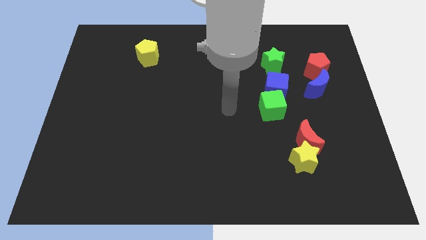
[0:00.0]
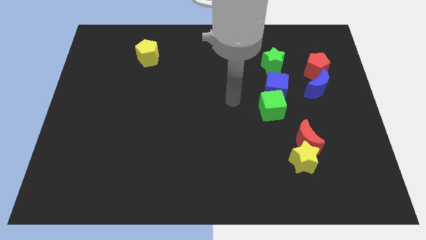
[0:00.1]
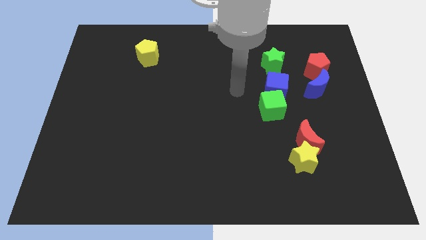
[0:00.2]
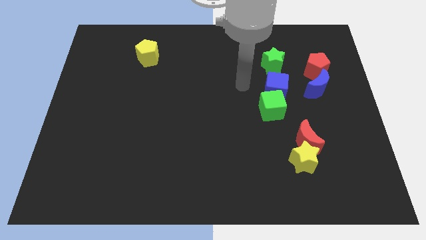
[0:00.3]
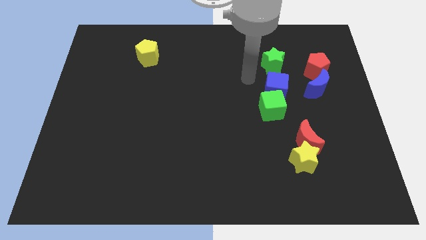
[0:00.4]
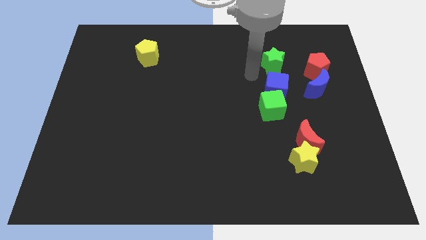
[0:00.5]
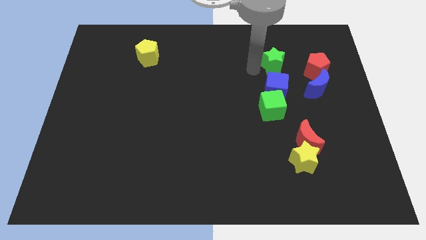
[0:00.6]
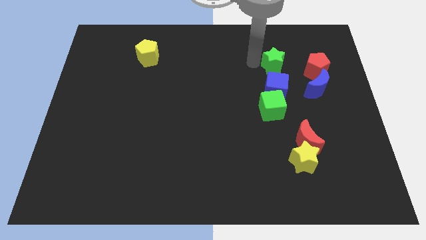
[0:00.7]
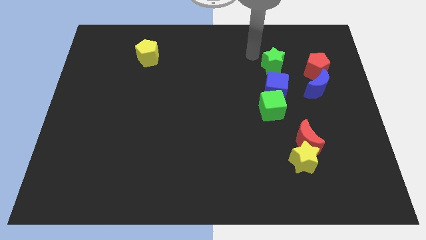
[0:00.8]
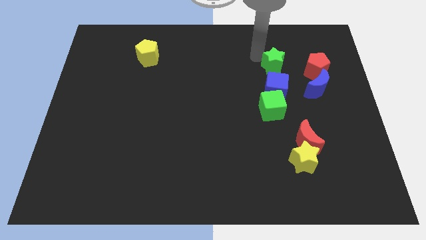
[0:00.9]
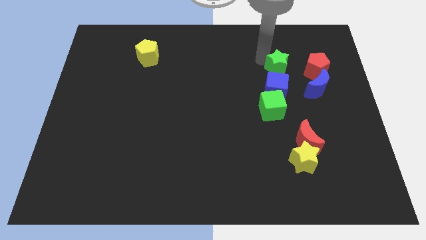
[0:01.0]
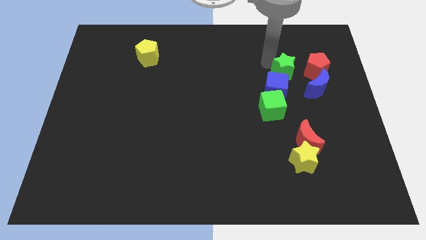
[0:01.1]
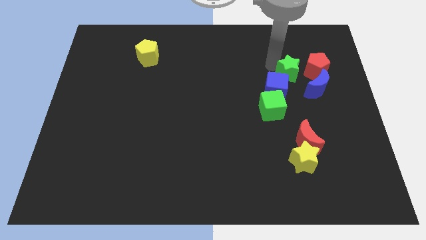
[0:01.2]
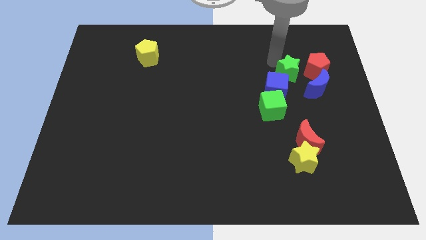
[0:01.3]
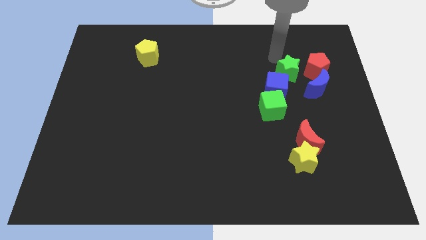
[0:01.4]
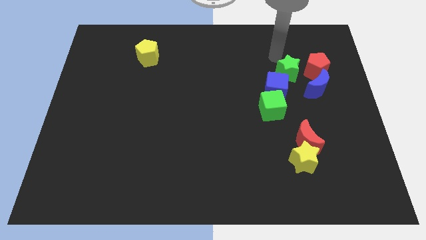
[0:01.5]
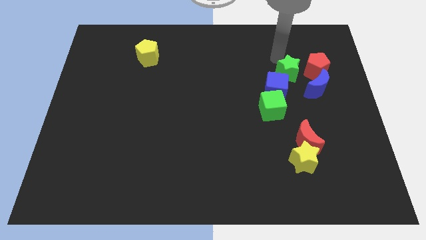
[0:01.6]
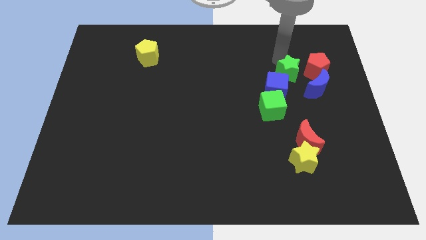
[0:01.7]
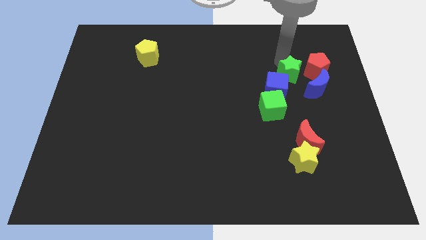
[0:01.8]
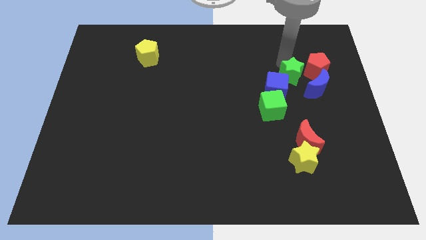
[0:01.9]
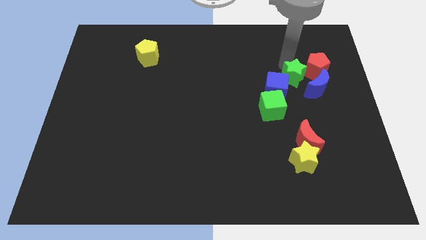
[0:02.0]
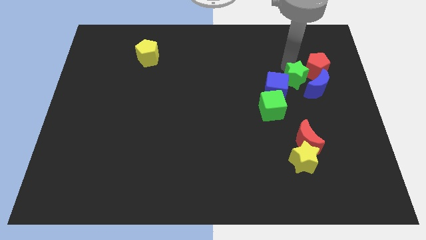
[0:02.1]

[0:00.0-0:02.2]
move the green star downwards and to the right a little

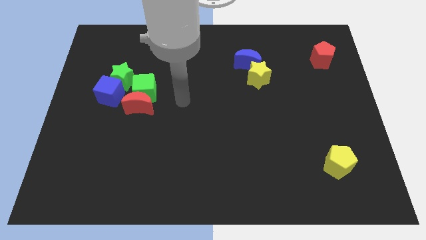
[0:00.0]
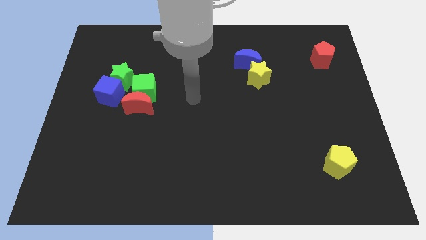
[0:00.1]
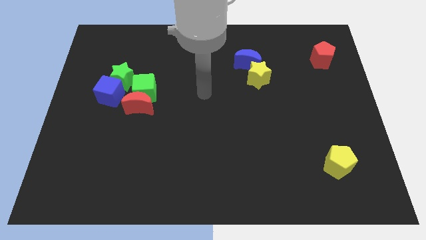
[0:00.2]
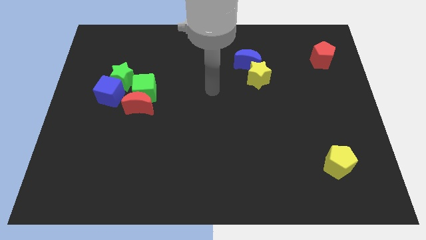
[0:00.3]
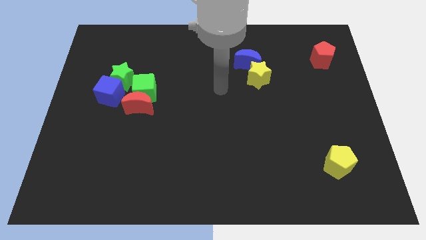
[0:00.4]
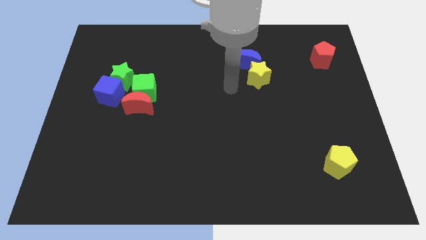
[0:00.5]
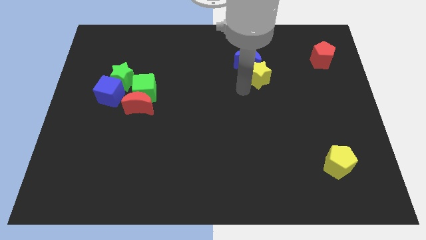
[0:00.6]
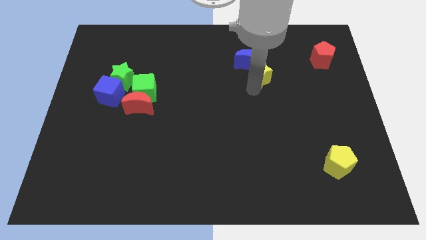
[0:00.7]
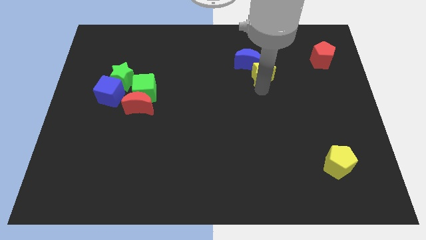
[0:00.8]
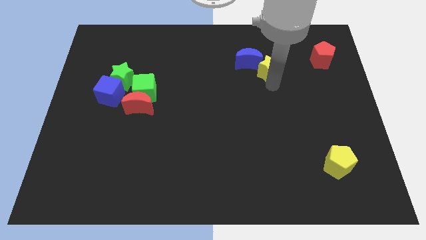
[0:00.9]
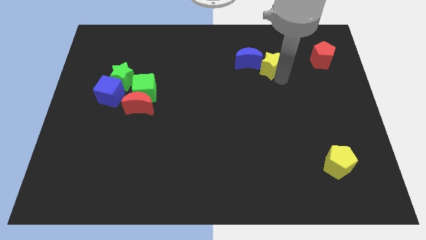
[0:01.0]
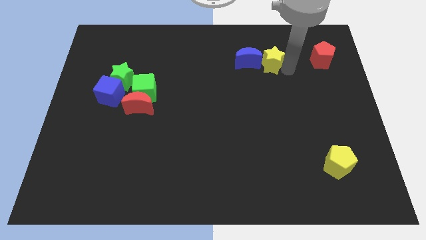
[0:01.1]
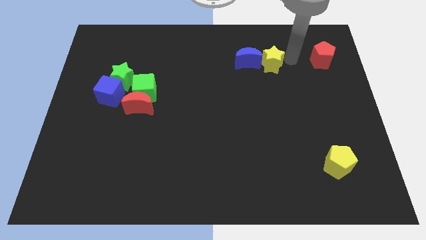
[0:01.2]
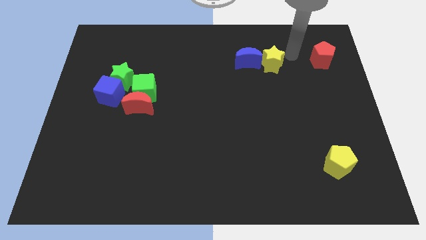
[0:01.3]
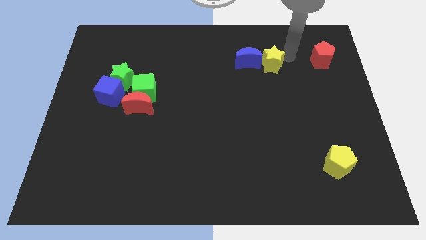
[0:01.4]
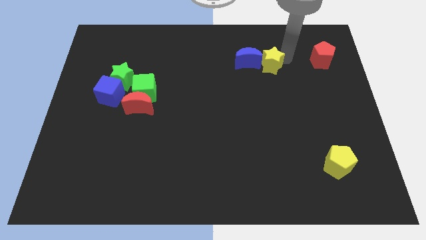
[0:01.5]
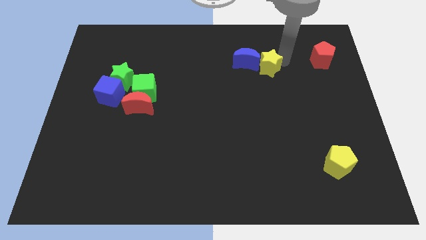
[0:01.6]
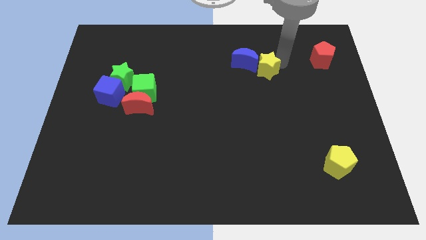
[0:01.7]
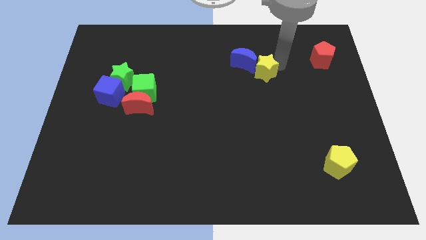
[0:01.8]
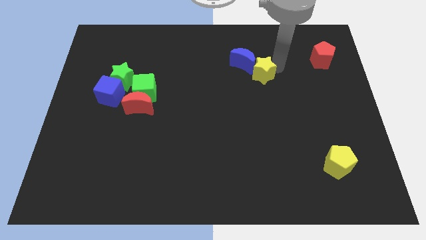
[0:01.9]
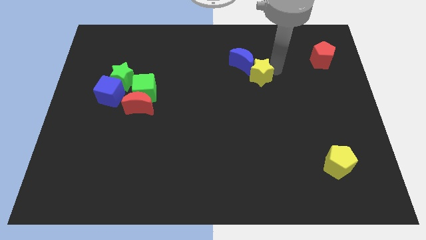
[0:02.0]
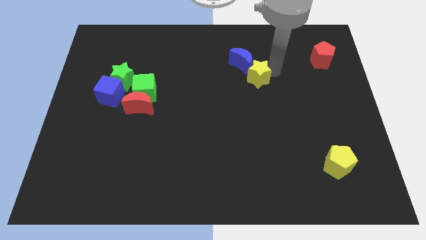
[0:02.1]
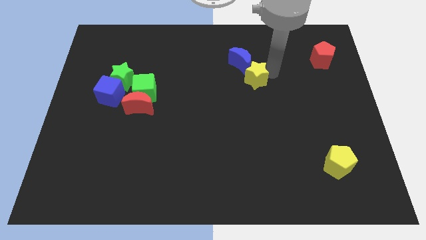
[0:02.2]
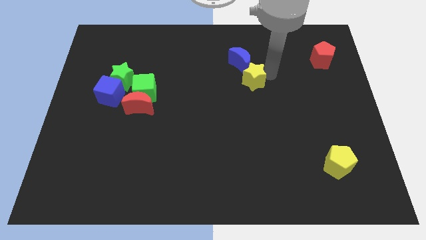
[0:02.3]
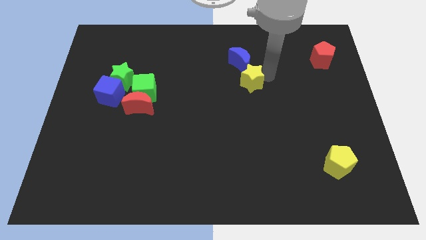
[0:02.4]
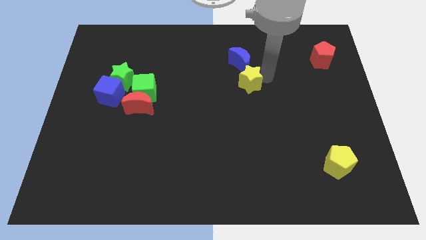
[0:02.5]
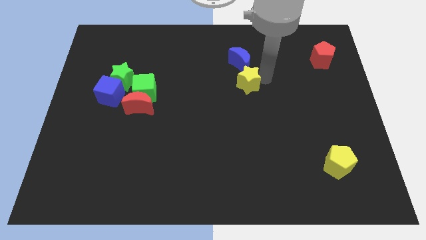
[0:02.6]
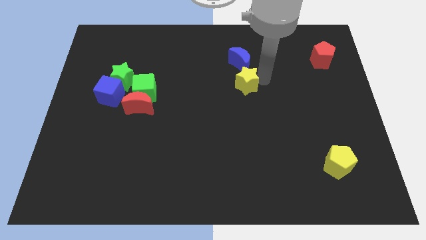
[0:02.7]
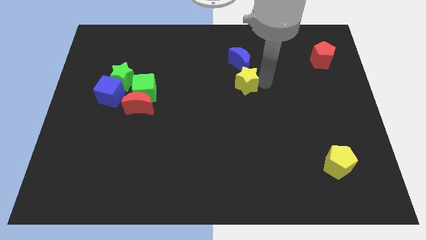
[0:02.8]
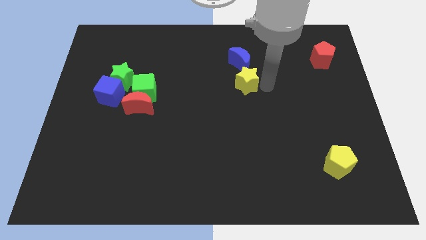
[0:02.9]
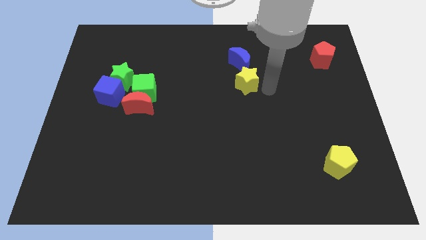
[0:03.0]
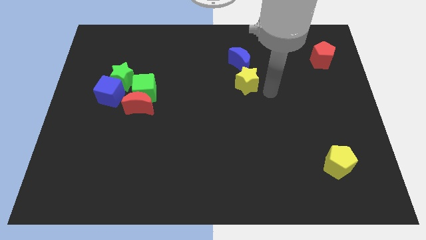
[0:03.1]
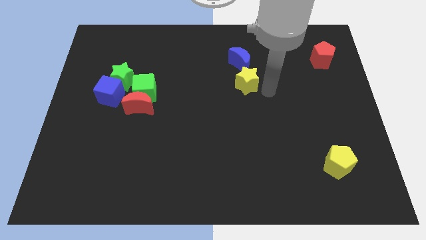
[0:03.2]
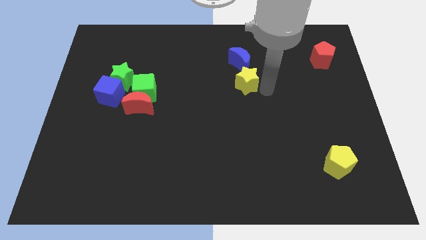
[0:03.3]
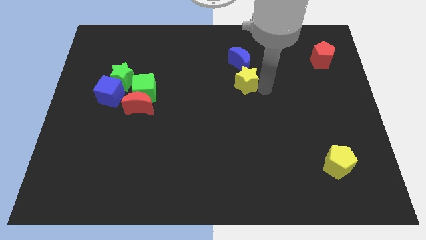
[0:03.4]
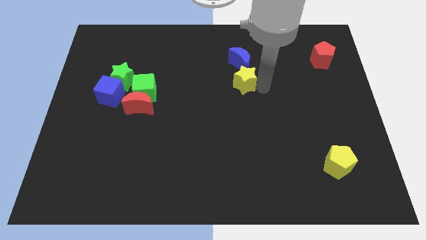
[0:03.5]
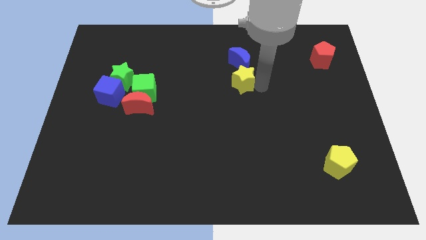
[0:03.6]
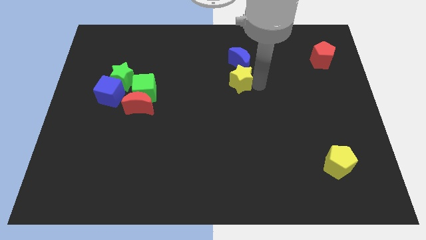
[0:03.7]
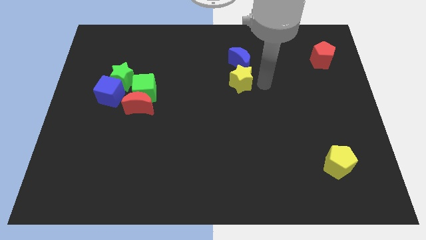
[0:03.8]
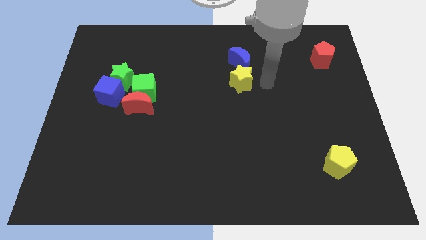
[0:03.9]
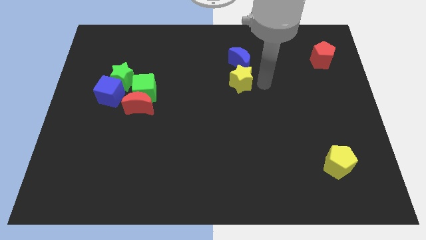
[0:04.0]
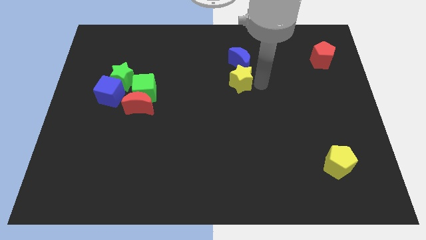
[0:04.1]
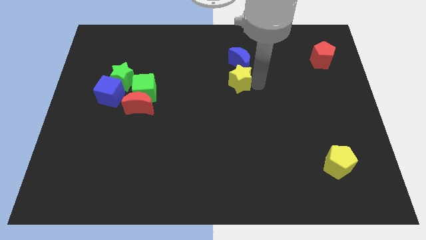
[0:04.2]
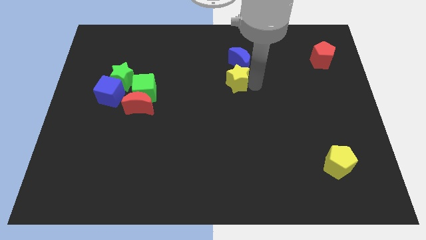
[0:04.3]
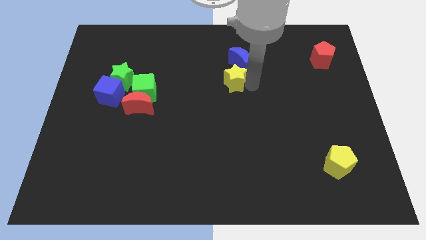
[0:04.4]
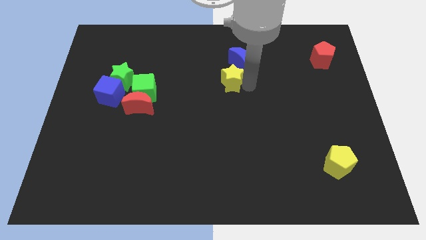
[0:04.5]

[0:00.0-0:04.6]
slightly move the yellow star left

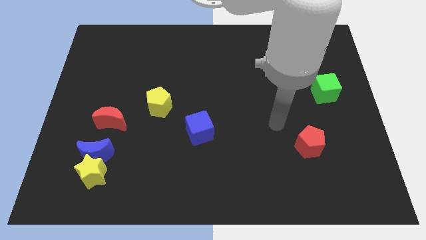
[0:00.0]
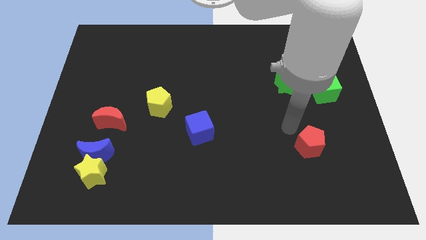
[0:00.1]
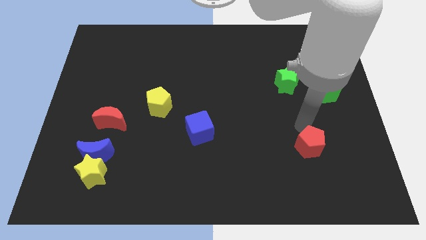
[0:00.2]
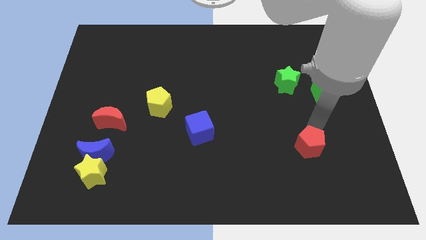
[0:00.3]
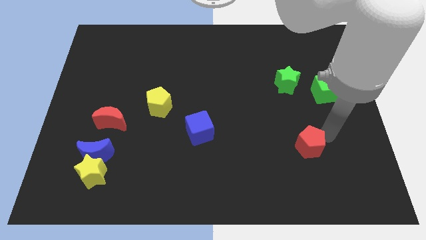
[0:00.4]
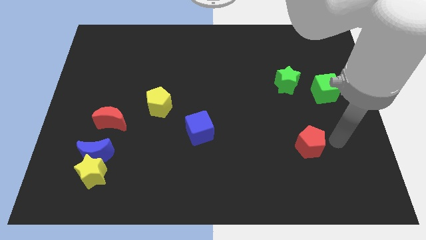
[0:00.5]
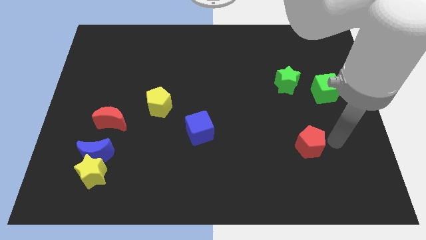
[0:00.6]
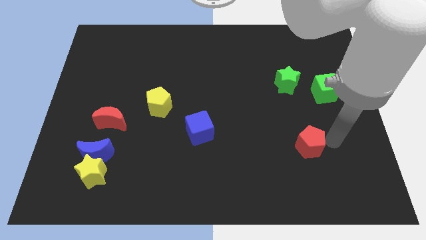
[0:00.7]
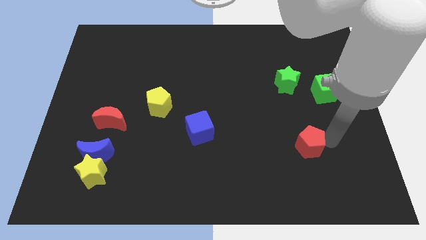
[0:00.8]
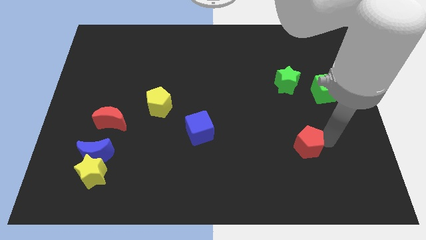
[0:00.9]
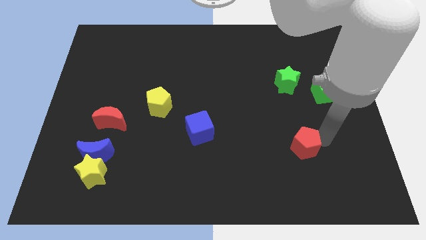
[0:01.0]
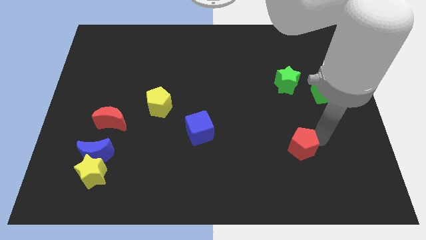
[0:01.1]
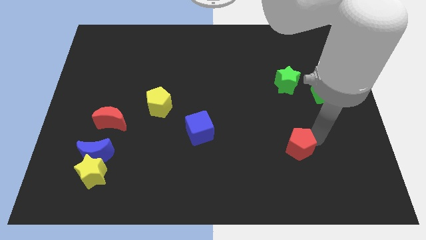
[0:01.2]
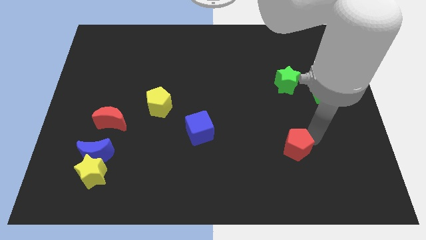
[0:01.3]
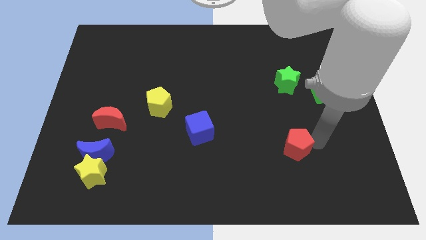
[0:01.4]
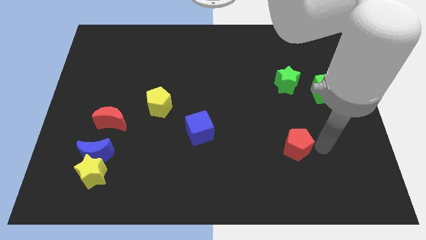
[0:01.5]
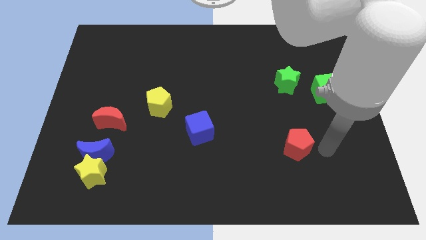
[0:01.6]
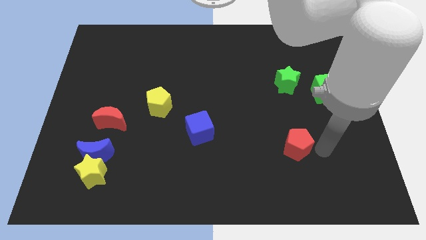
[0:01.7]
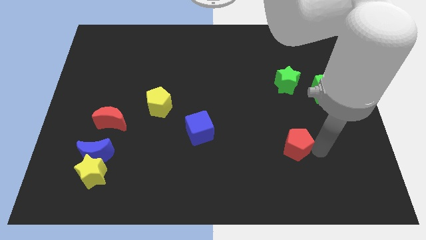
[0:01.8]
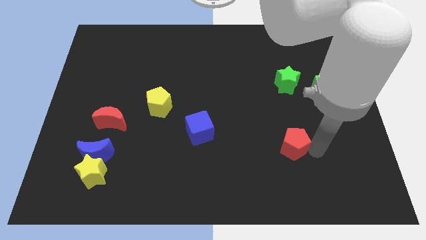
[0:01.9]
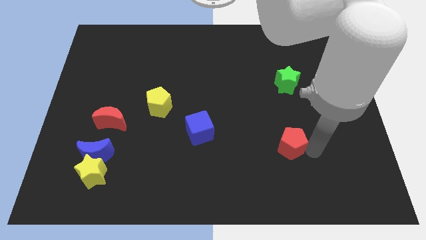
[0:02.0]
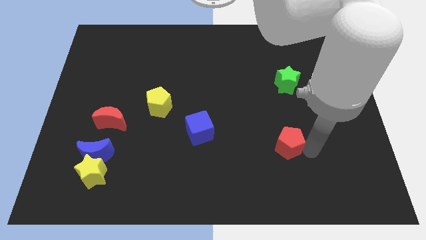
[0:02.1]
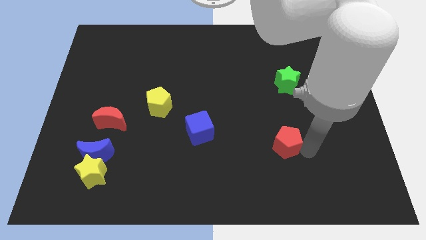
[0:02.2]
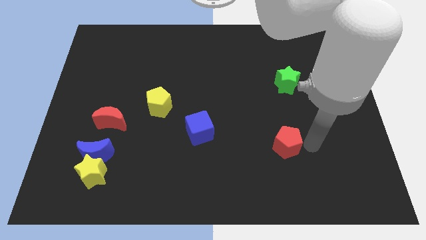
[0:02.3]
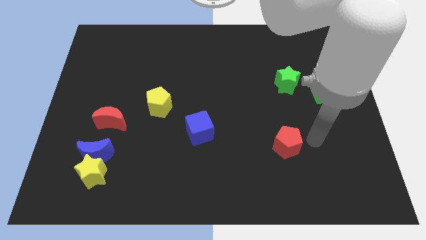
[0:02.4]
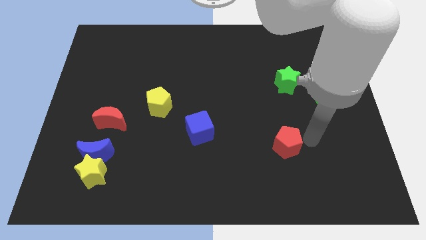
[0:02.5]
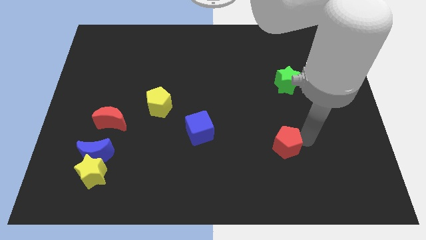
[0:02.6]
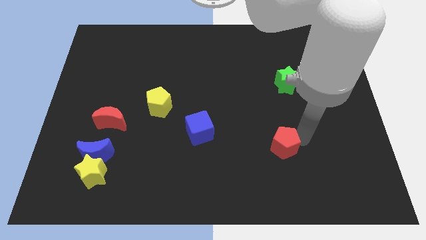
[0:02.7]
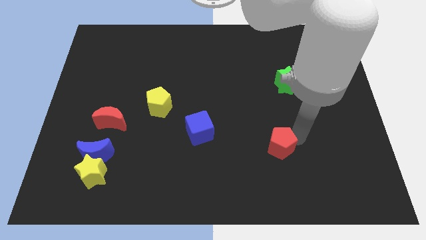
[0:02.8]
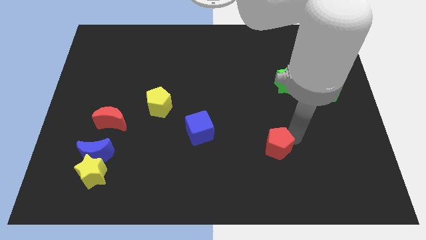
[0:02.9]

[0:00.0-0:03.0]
slightly push the red pentagon to the left
